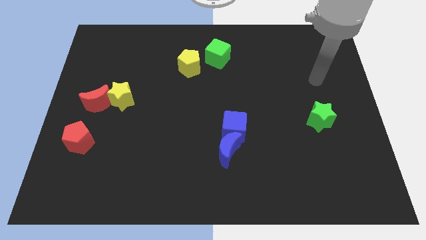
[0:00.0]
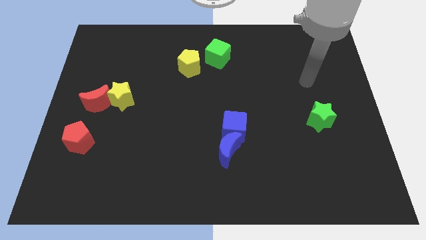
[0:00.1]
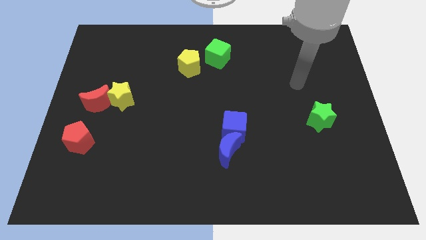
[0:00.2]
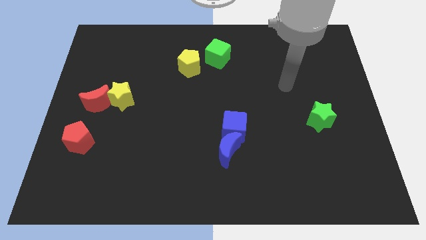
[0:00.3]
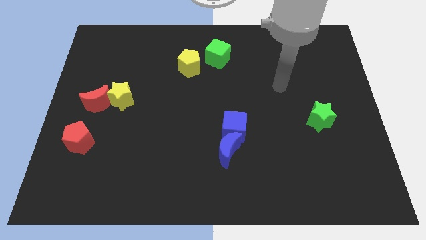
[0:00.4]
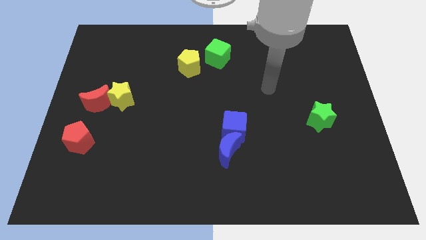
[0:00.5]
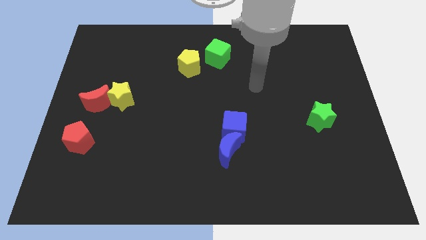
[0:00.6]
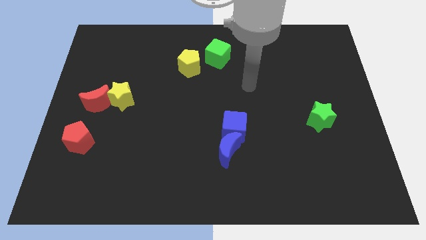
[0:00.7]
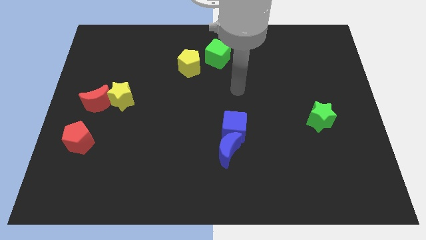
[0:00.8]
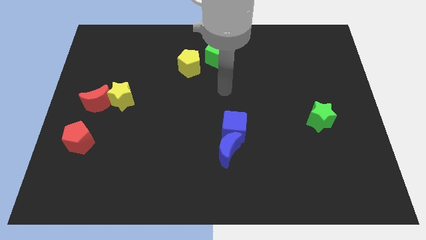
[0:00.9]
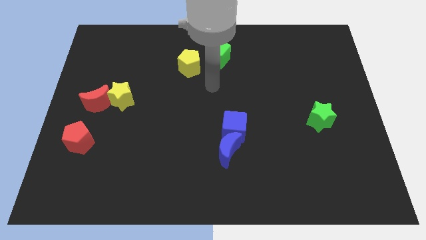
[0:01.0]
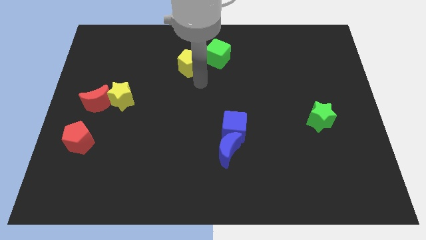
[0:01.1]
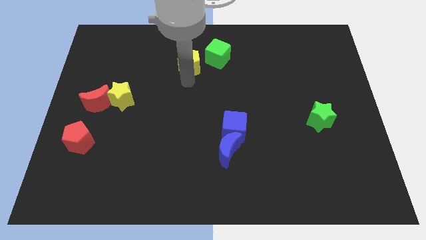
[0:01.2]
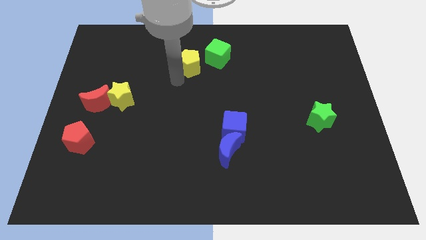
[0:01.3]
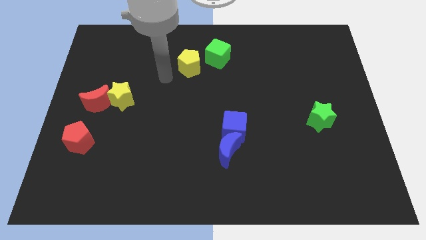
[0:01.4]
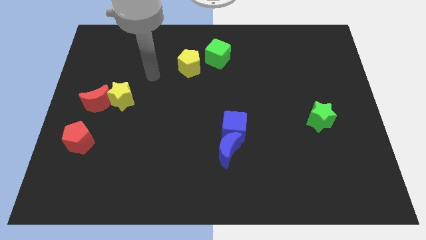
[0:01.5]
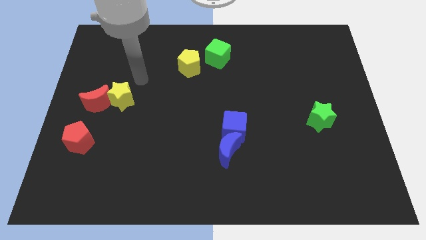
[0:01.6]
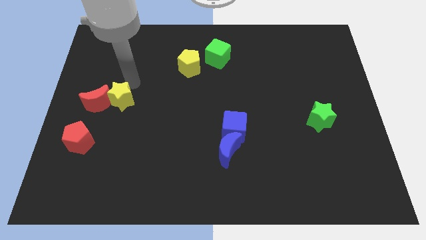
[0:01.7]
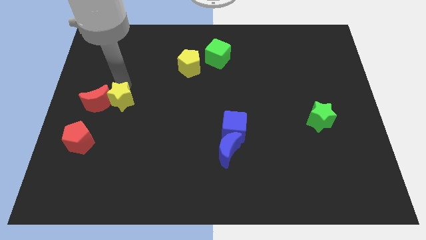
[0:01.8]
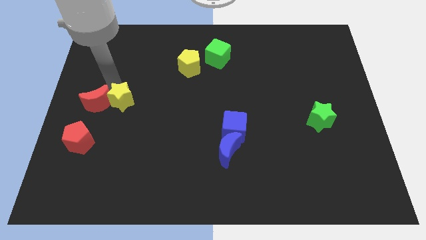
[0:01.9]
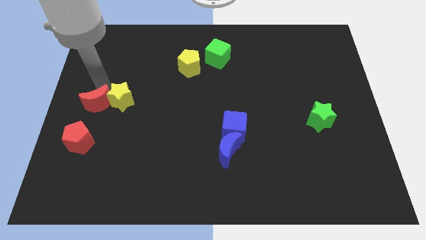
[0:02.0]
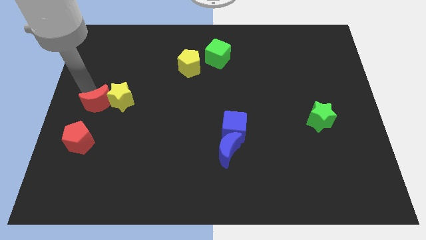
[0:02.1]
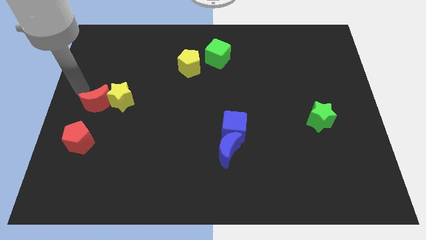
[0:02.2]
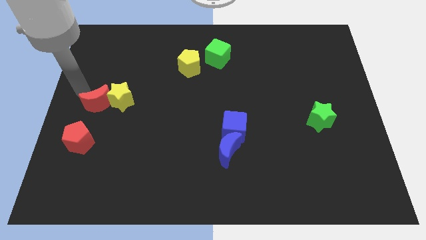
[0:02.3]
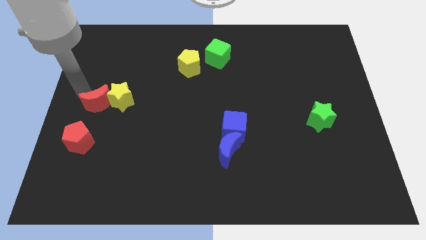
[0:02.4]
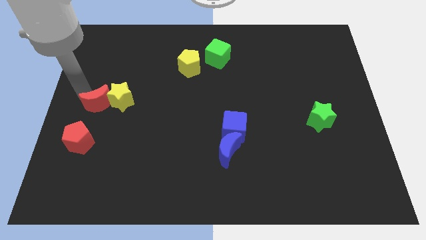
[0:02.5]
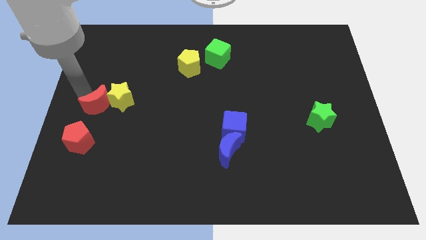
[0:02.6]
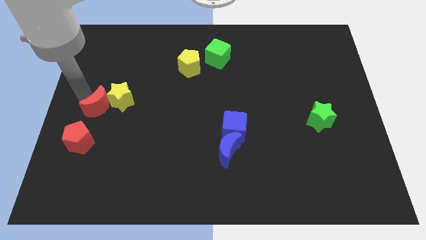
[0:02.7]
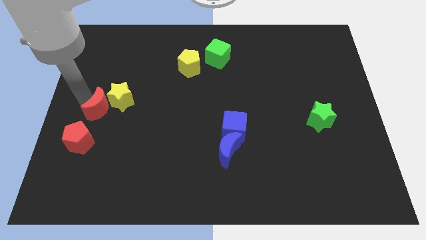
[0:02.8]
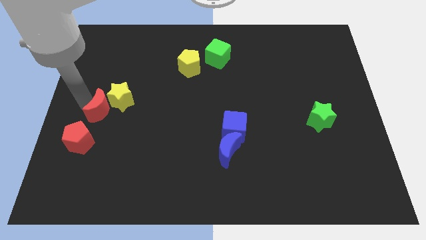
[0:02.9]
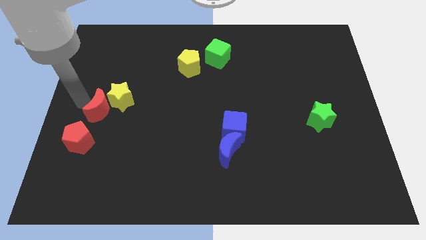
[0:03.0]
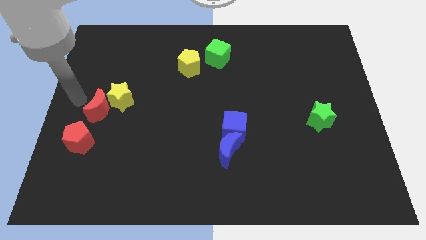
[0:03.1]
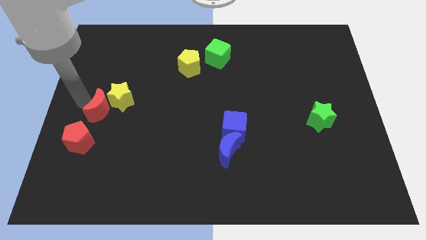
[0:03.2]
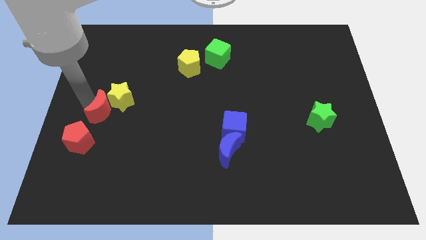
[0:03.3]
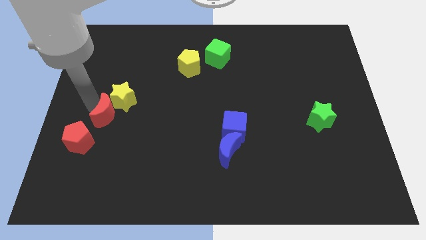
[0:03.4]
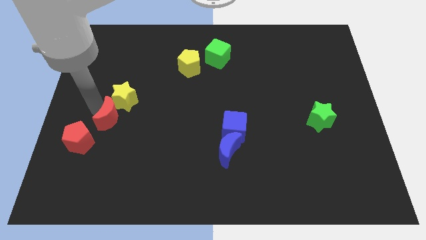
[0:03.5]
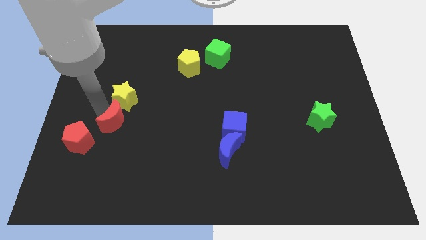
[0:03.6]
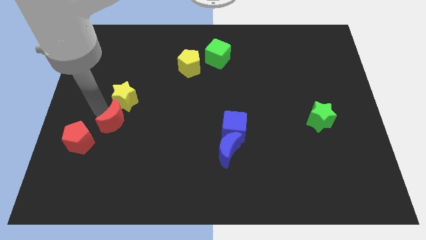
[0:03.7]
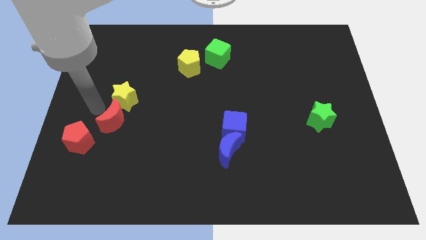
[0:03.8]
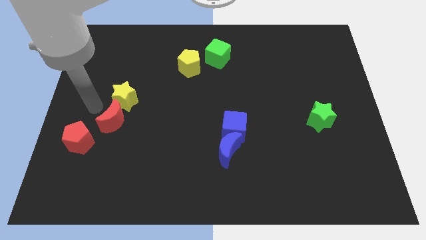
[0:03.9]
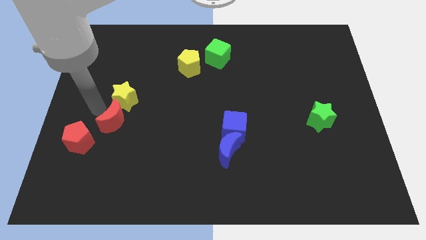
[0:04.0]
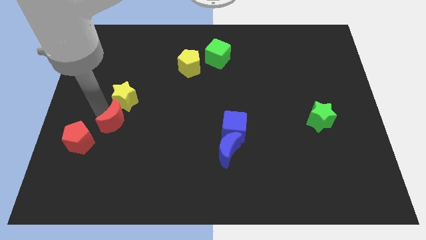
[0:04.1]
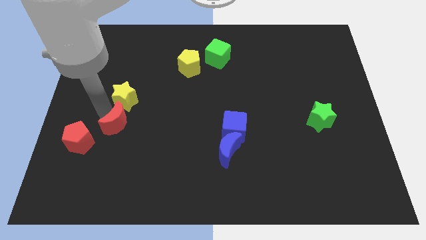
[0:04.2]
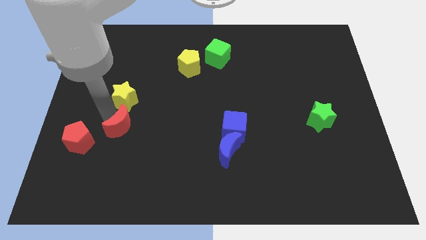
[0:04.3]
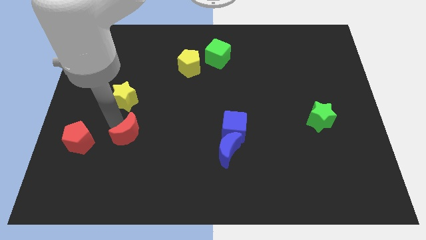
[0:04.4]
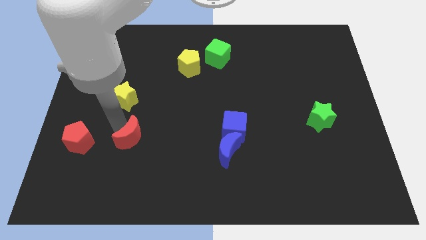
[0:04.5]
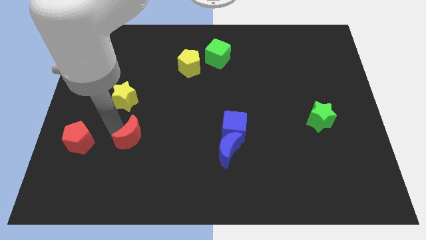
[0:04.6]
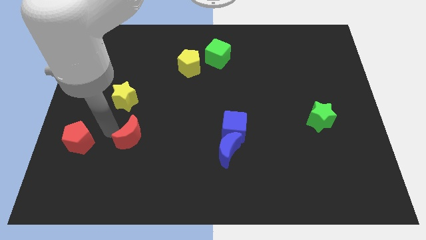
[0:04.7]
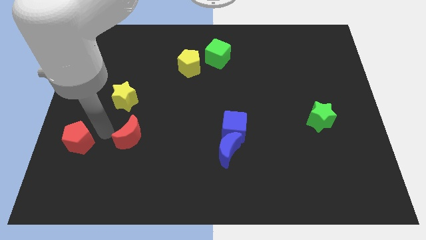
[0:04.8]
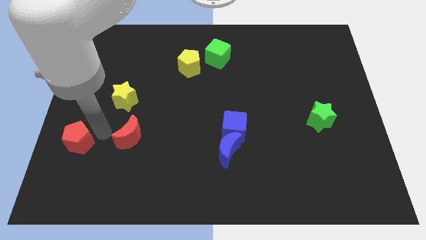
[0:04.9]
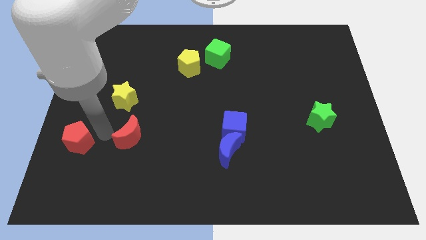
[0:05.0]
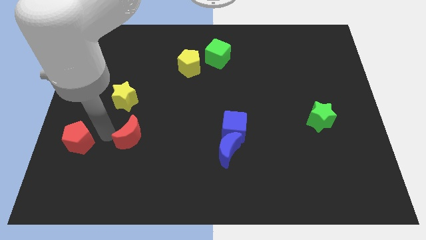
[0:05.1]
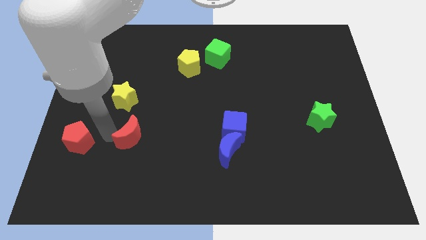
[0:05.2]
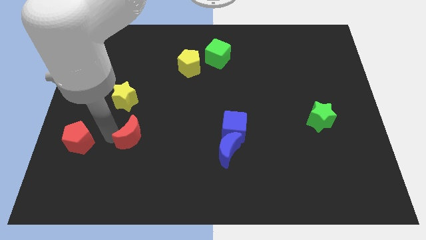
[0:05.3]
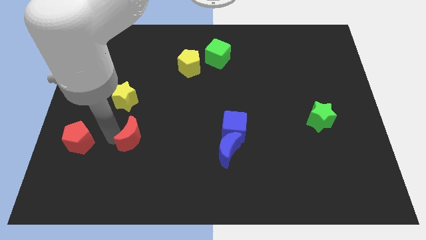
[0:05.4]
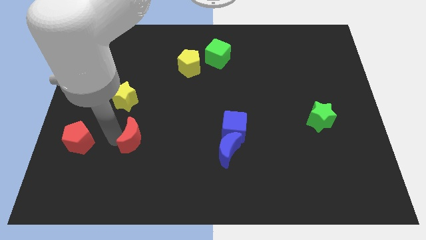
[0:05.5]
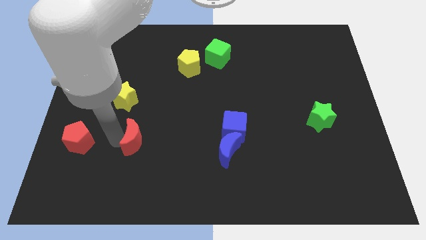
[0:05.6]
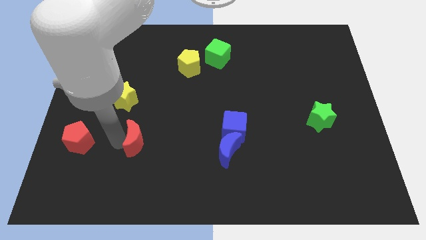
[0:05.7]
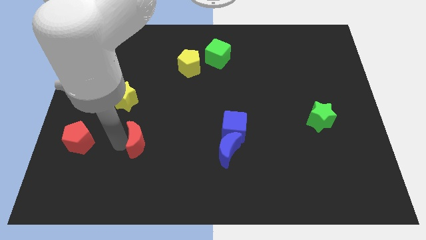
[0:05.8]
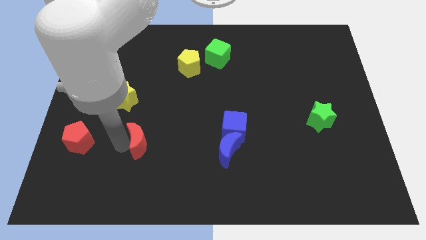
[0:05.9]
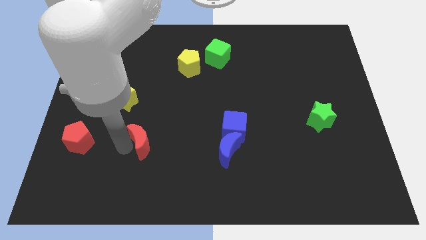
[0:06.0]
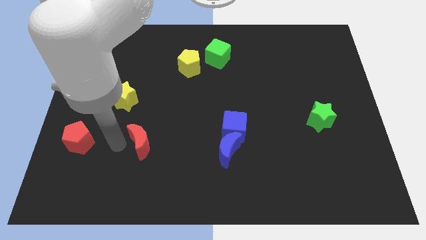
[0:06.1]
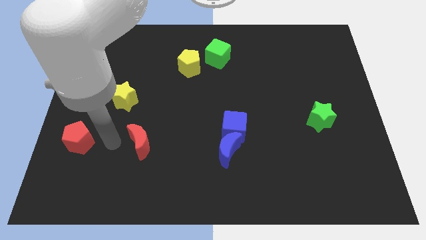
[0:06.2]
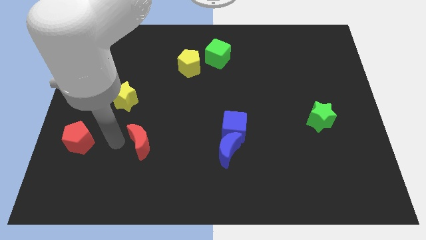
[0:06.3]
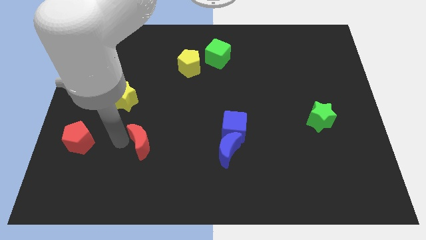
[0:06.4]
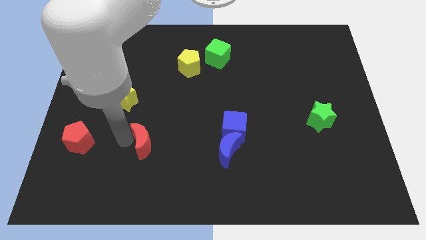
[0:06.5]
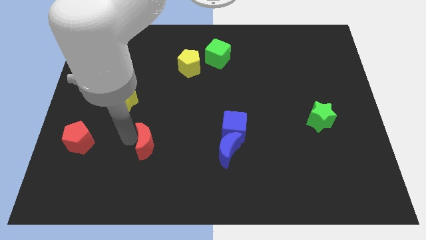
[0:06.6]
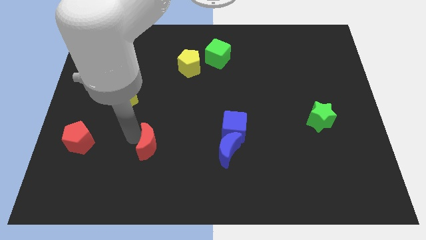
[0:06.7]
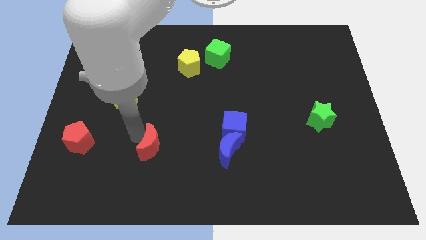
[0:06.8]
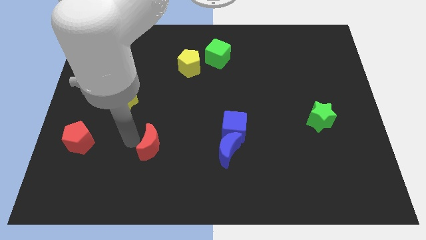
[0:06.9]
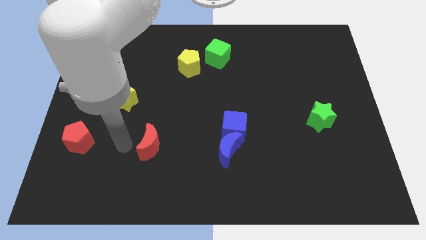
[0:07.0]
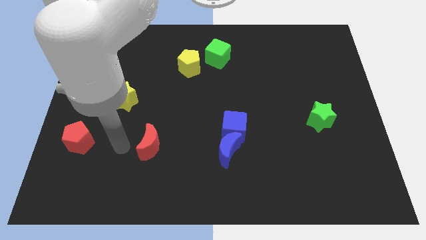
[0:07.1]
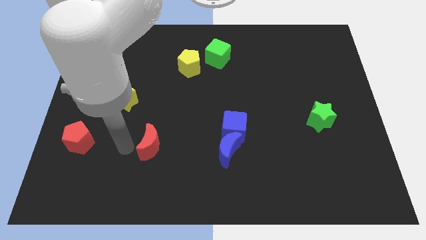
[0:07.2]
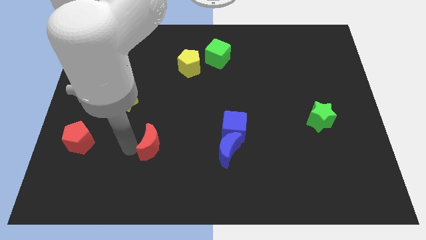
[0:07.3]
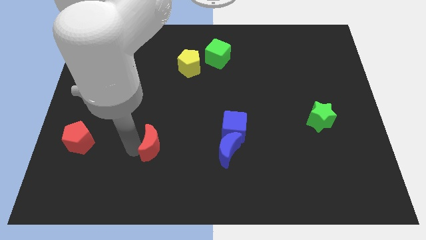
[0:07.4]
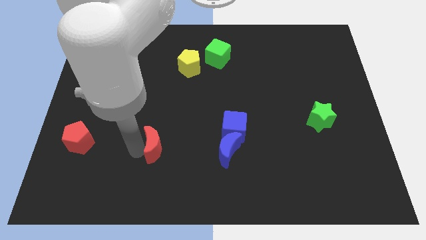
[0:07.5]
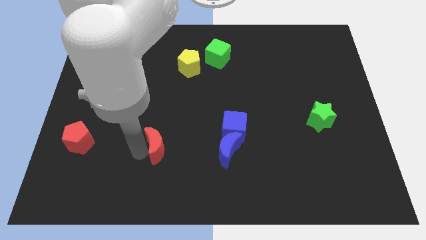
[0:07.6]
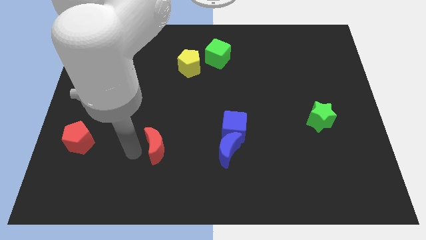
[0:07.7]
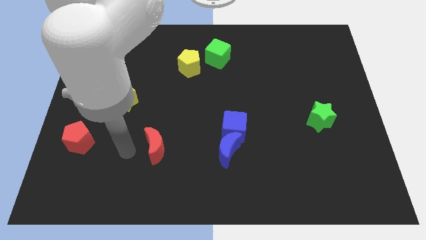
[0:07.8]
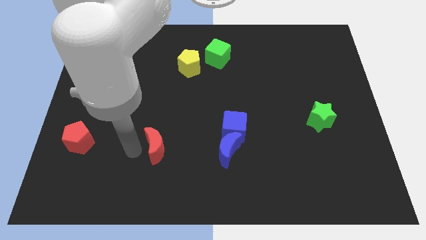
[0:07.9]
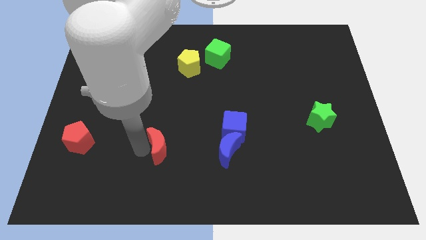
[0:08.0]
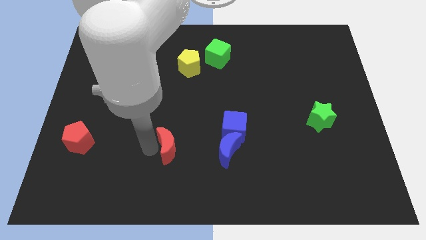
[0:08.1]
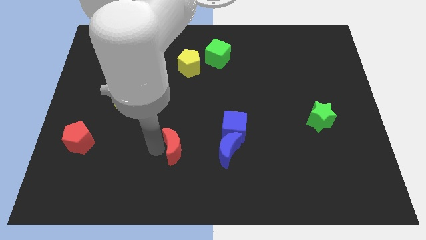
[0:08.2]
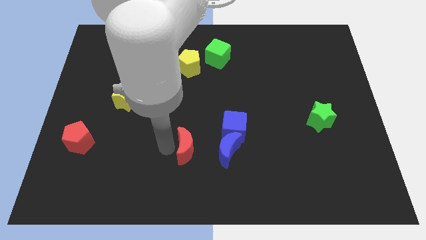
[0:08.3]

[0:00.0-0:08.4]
slide the red moon to the bottom left side of the blue cube
